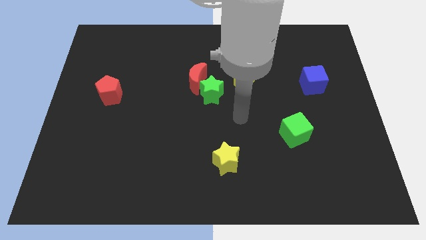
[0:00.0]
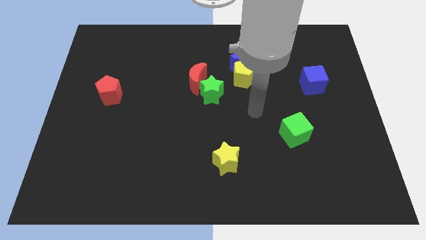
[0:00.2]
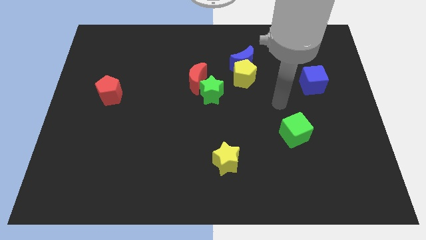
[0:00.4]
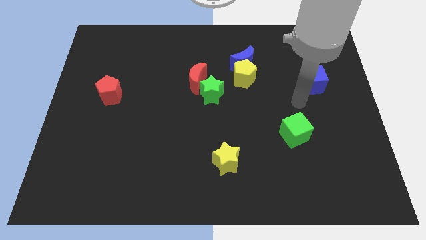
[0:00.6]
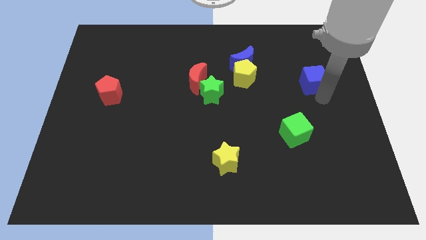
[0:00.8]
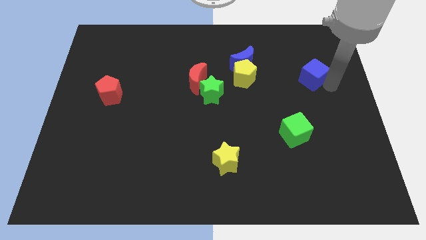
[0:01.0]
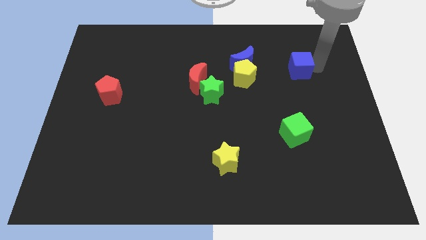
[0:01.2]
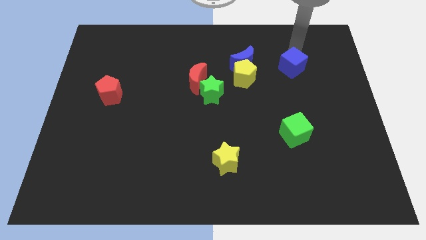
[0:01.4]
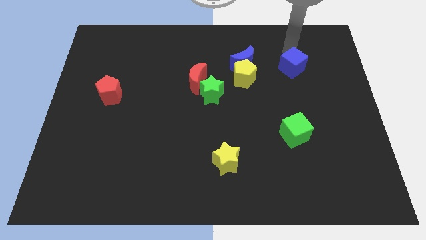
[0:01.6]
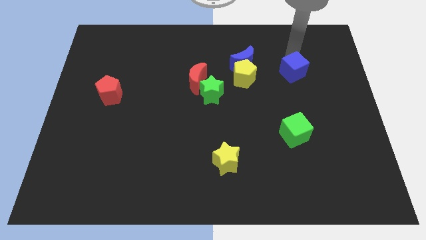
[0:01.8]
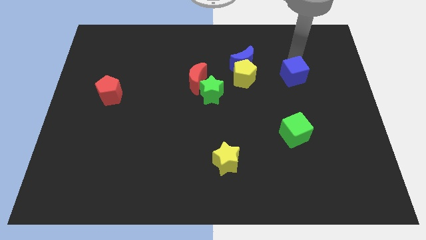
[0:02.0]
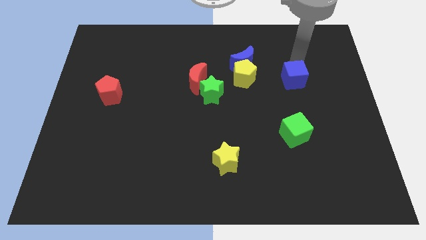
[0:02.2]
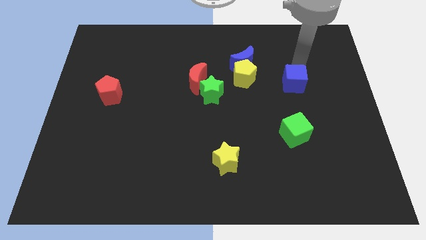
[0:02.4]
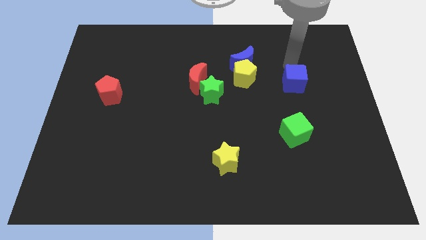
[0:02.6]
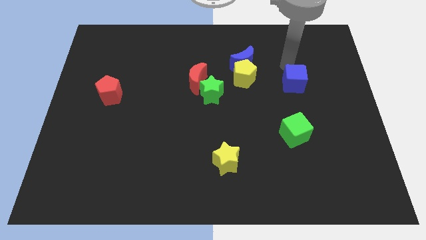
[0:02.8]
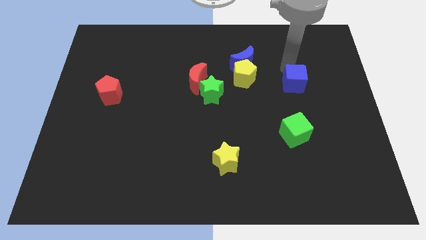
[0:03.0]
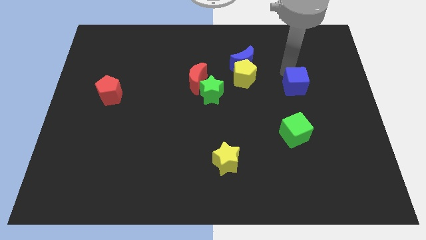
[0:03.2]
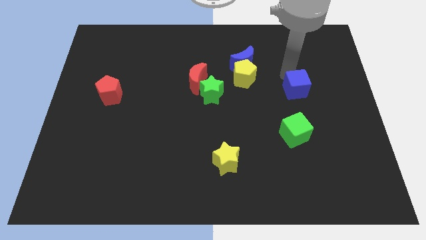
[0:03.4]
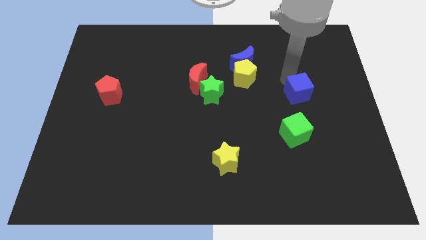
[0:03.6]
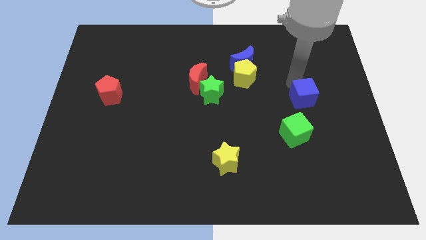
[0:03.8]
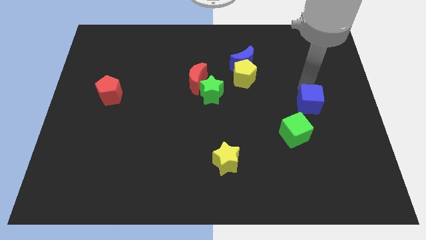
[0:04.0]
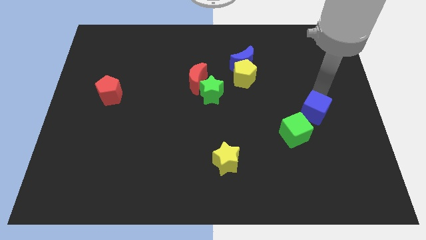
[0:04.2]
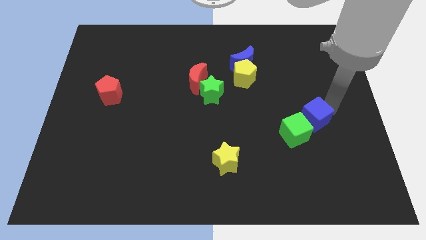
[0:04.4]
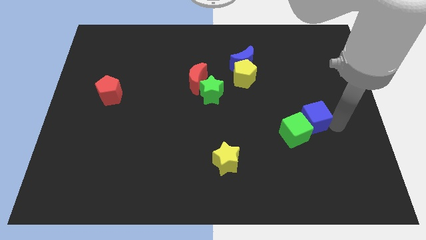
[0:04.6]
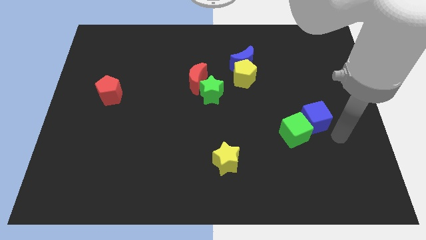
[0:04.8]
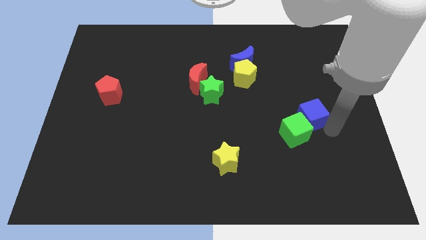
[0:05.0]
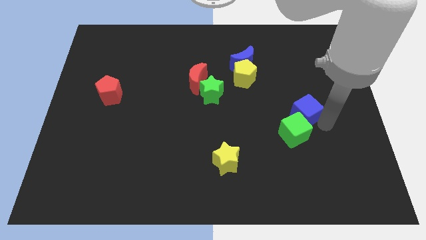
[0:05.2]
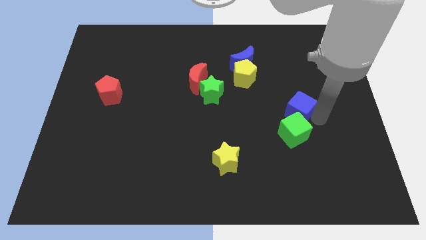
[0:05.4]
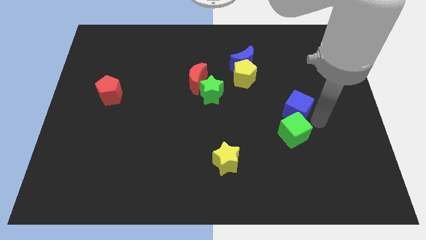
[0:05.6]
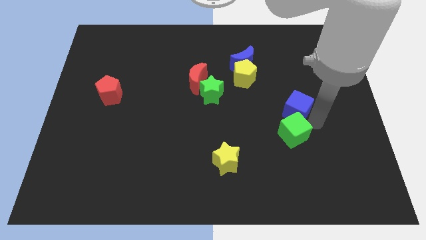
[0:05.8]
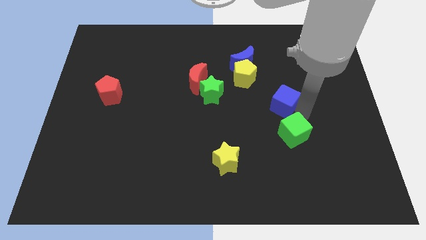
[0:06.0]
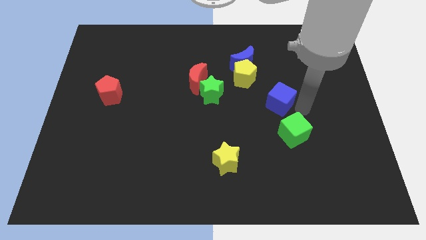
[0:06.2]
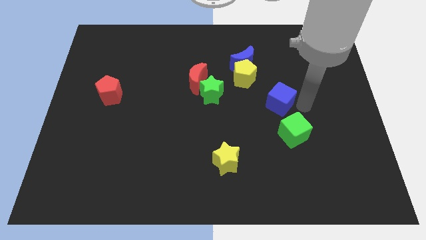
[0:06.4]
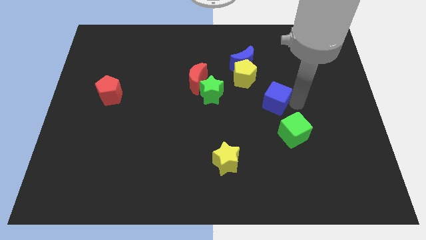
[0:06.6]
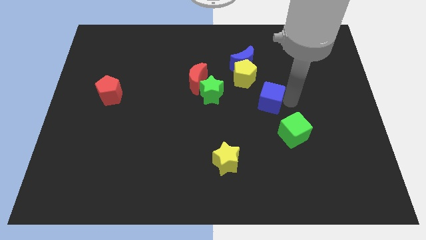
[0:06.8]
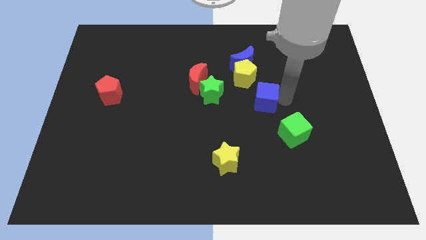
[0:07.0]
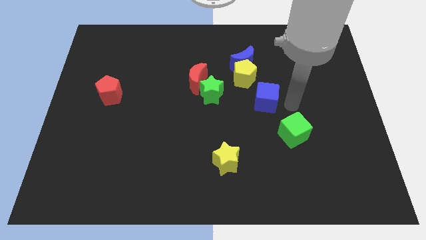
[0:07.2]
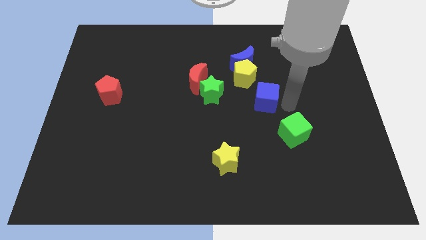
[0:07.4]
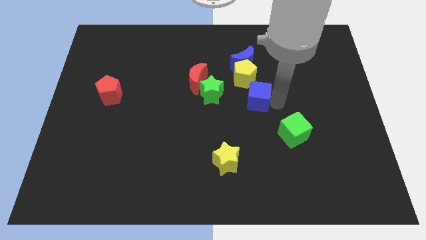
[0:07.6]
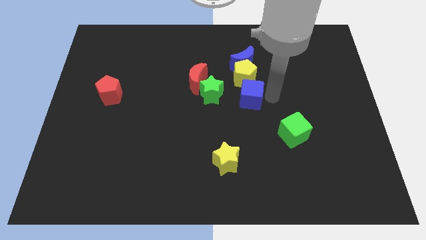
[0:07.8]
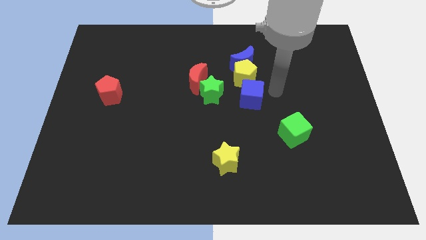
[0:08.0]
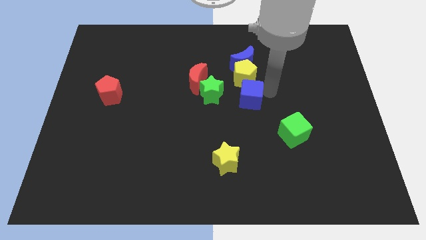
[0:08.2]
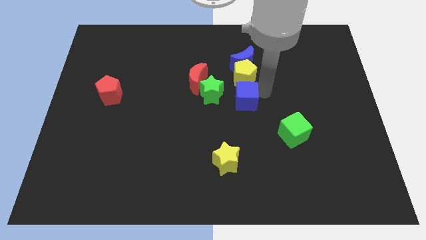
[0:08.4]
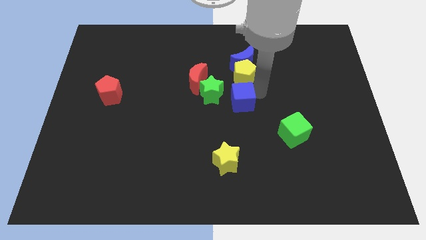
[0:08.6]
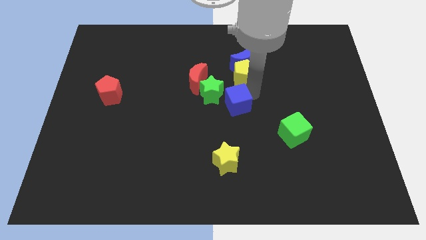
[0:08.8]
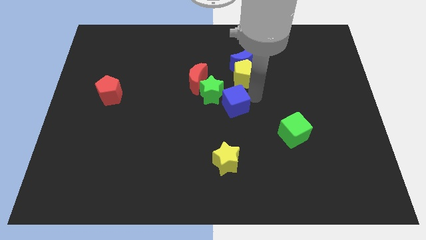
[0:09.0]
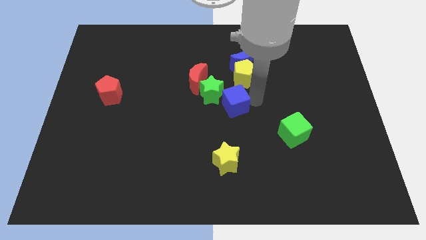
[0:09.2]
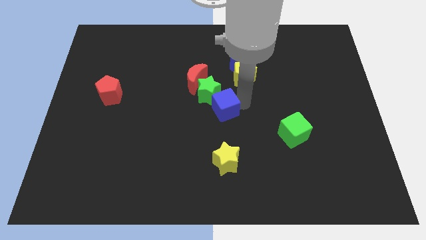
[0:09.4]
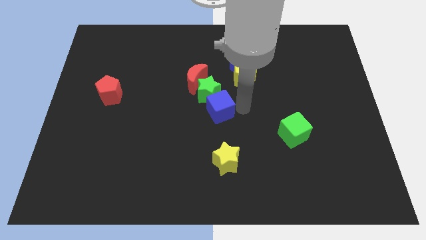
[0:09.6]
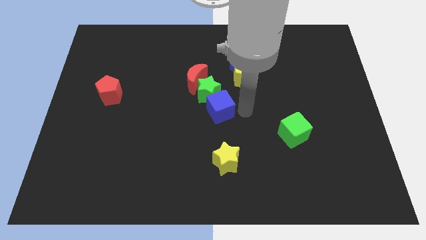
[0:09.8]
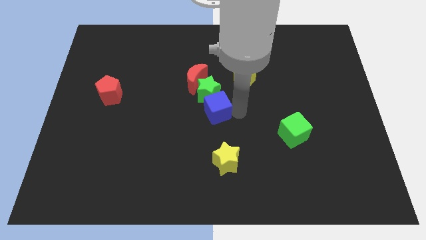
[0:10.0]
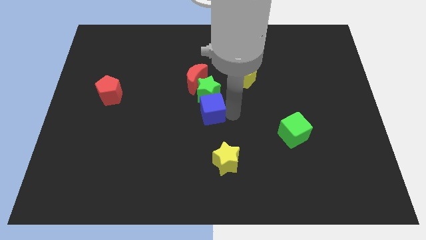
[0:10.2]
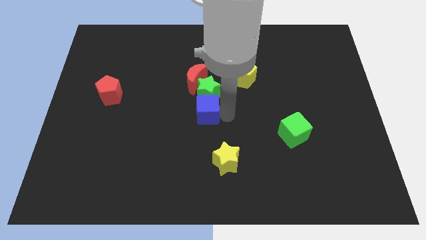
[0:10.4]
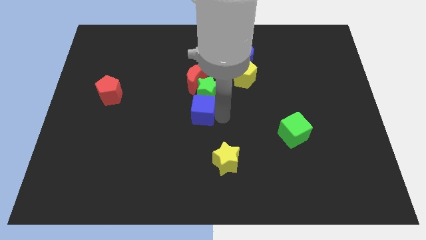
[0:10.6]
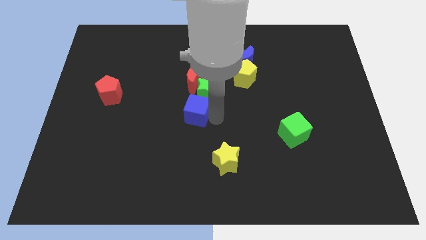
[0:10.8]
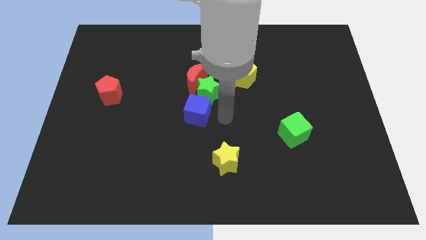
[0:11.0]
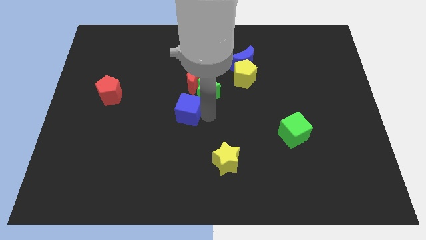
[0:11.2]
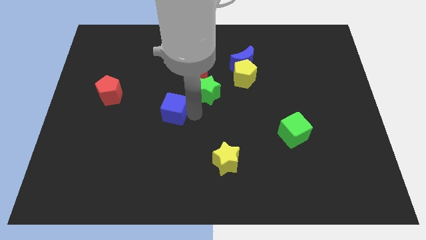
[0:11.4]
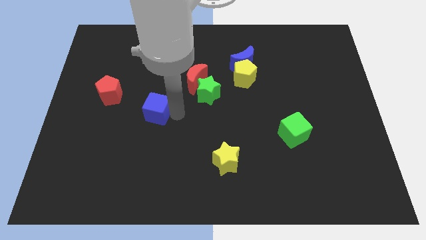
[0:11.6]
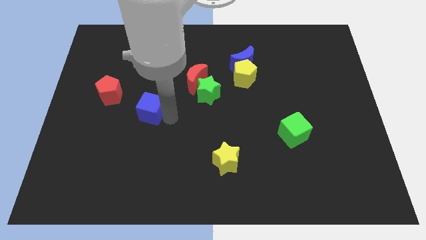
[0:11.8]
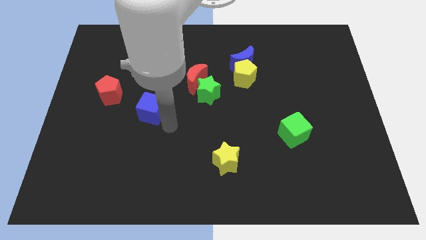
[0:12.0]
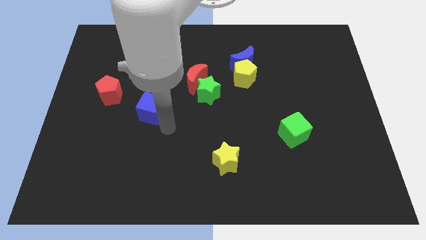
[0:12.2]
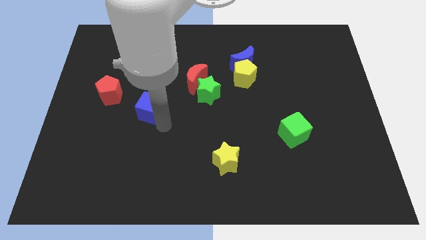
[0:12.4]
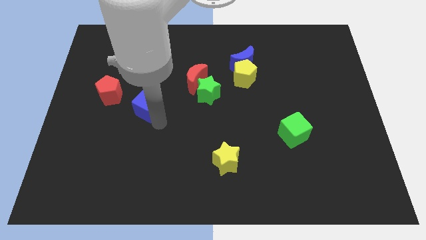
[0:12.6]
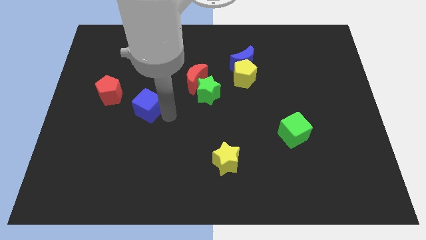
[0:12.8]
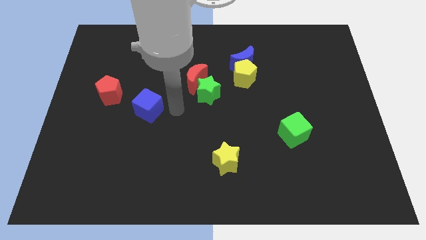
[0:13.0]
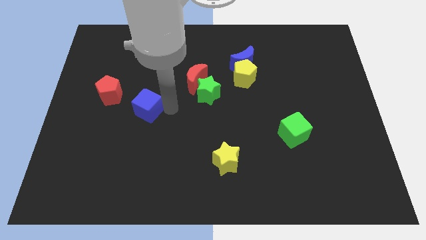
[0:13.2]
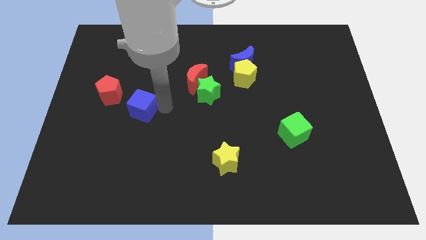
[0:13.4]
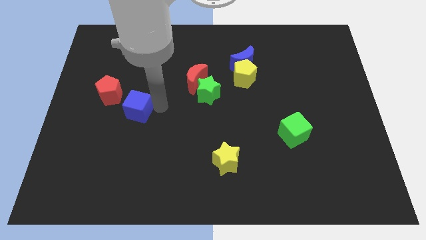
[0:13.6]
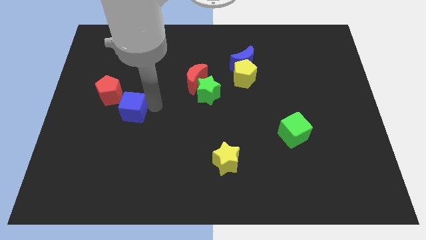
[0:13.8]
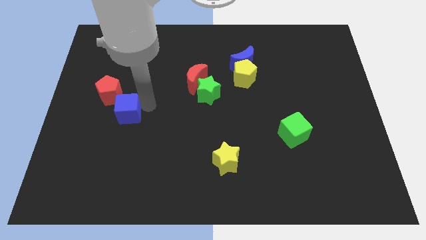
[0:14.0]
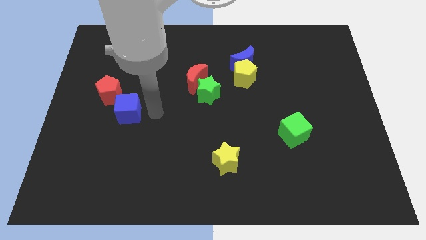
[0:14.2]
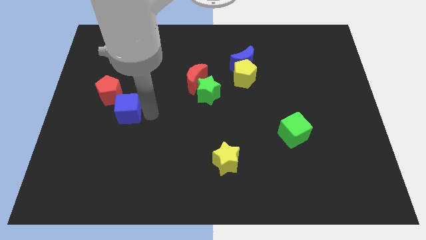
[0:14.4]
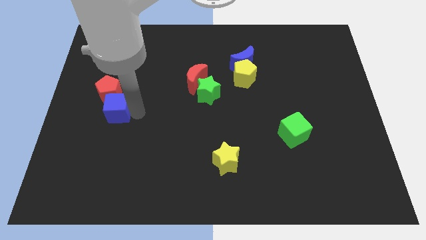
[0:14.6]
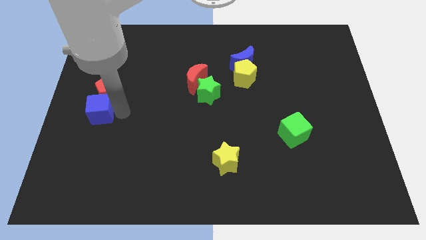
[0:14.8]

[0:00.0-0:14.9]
push the blue cube to the left side
